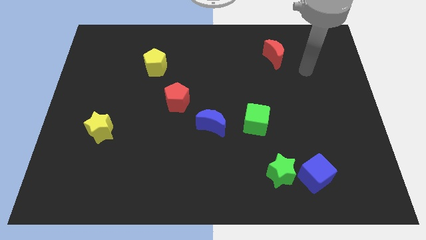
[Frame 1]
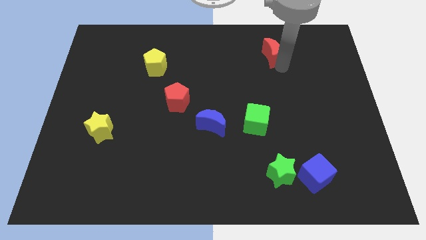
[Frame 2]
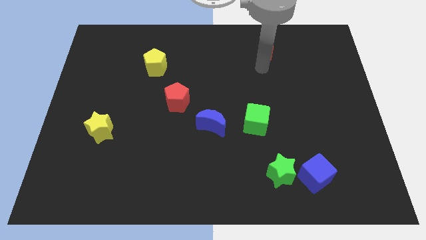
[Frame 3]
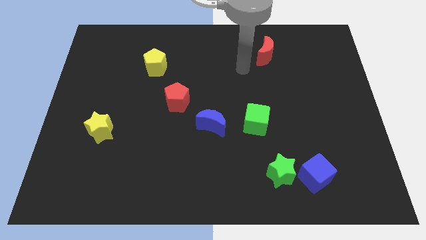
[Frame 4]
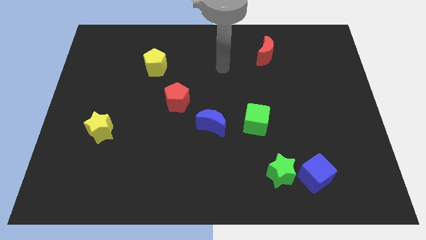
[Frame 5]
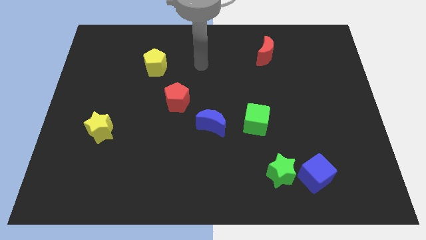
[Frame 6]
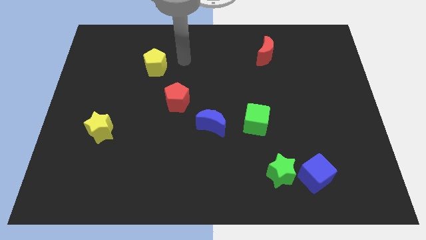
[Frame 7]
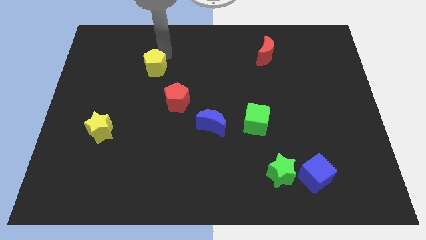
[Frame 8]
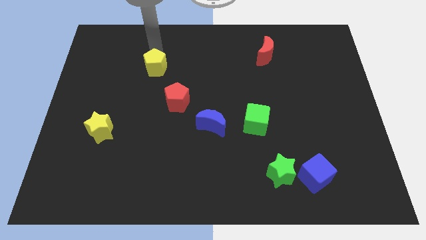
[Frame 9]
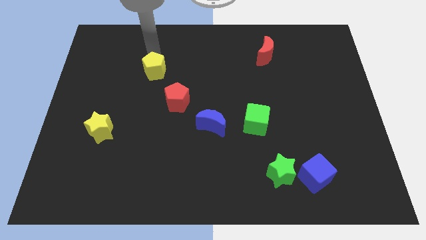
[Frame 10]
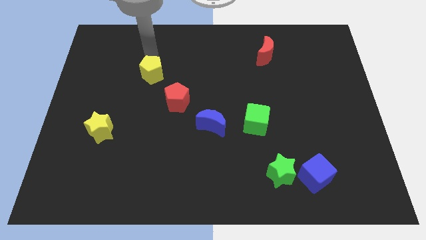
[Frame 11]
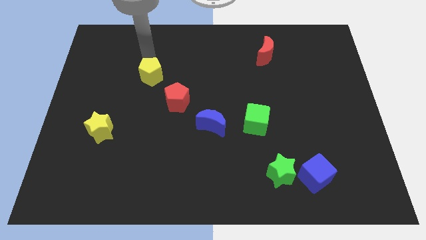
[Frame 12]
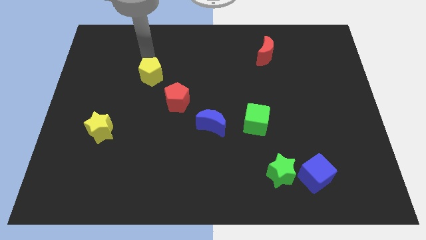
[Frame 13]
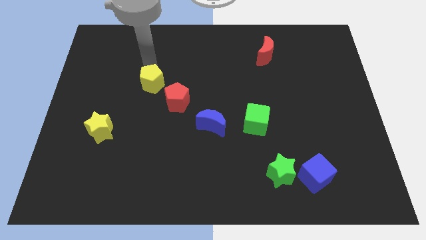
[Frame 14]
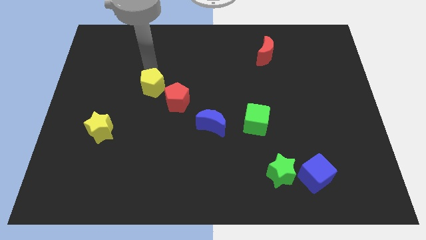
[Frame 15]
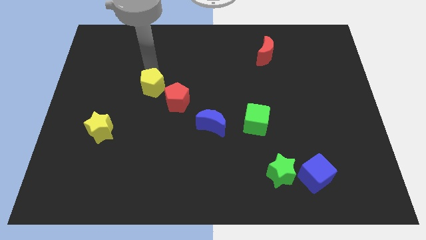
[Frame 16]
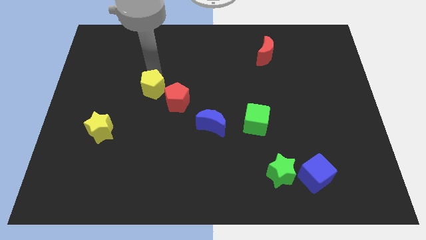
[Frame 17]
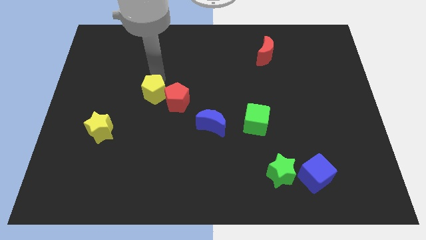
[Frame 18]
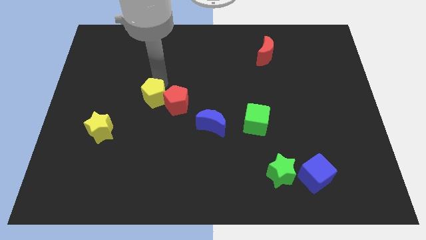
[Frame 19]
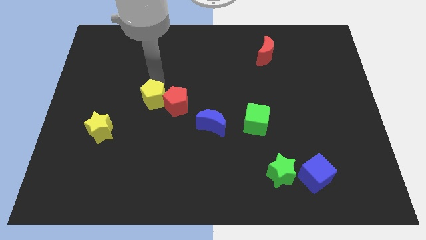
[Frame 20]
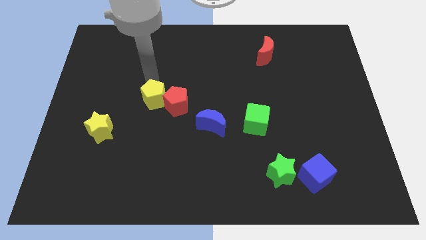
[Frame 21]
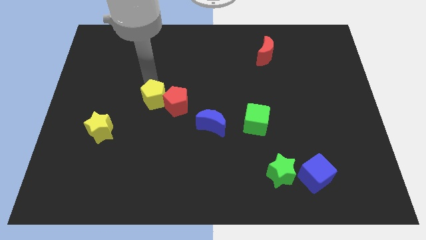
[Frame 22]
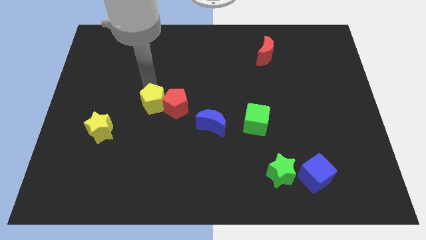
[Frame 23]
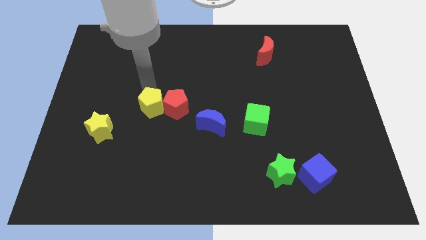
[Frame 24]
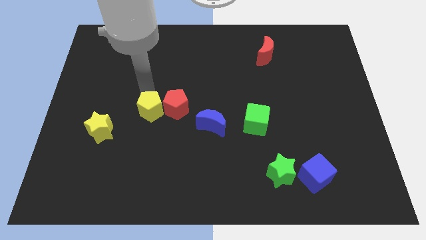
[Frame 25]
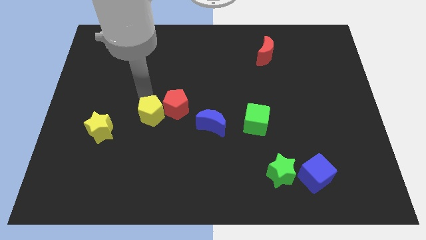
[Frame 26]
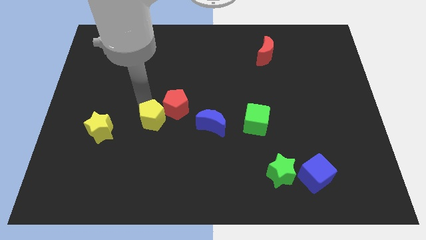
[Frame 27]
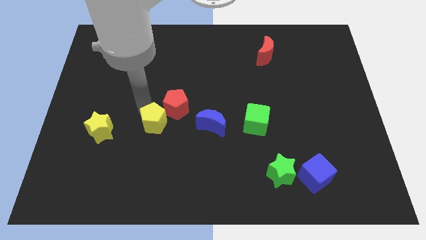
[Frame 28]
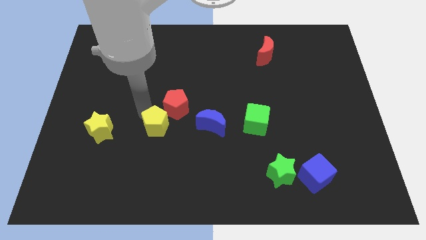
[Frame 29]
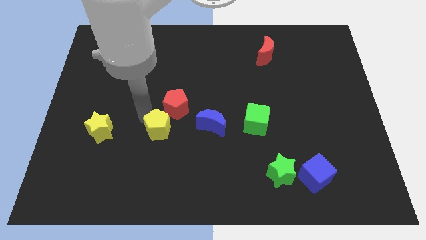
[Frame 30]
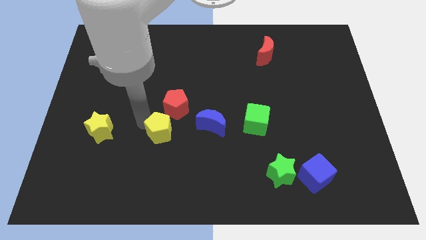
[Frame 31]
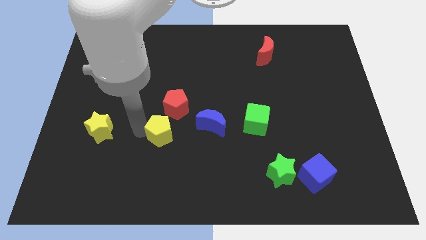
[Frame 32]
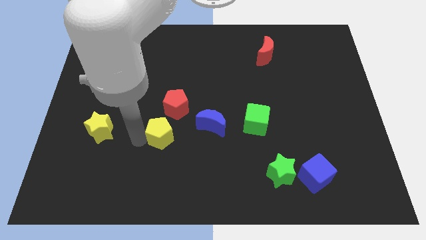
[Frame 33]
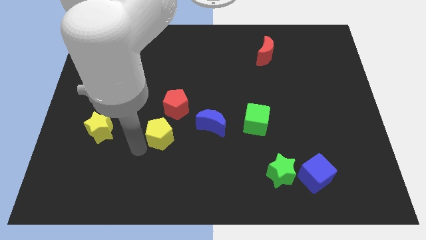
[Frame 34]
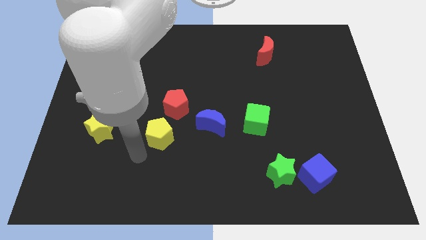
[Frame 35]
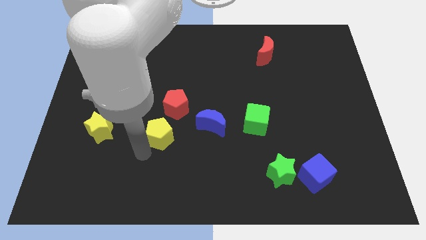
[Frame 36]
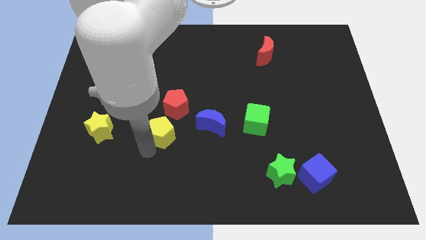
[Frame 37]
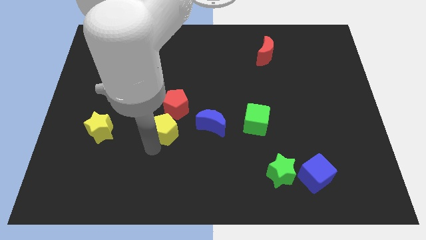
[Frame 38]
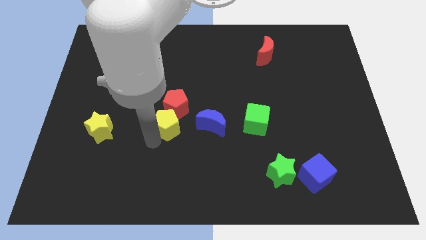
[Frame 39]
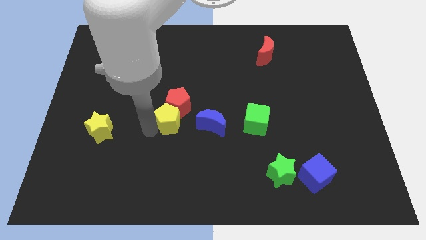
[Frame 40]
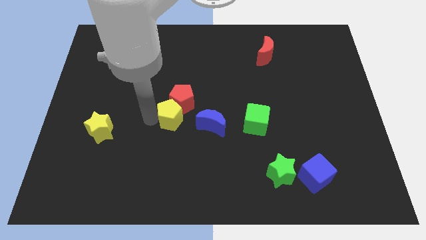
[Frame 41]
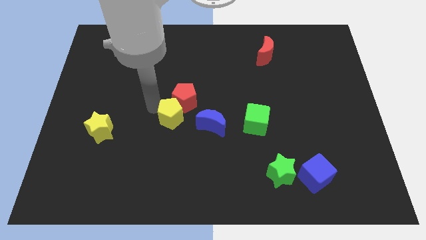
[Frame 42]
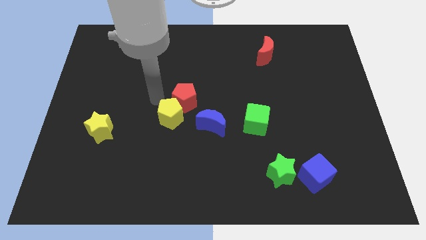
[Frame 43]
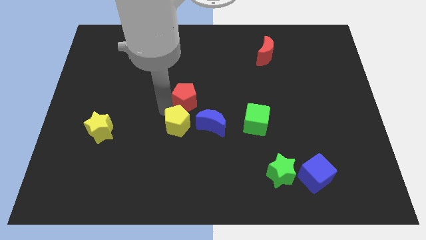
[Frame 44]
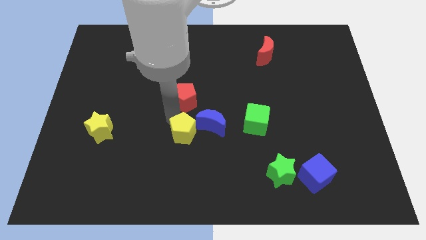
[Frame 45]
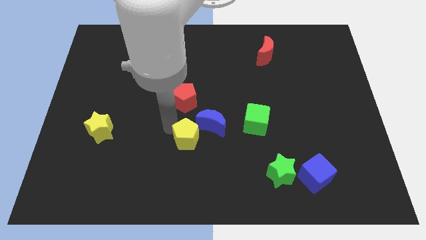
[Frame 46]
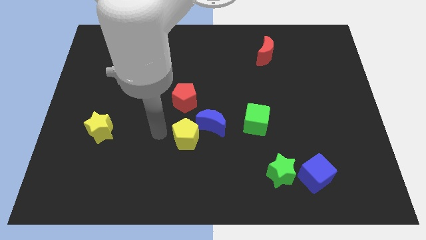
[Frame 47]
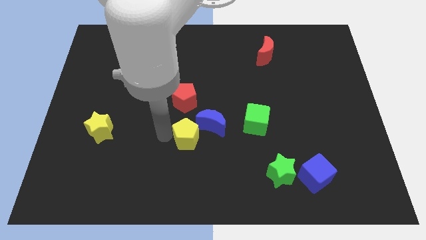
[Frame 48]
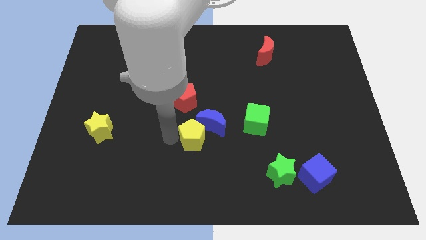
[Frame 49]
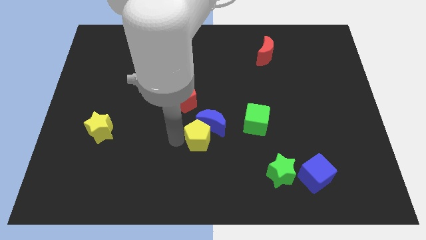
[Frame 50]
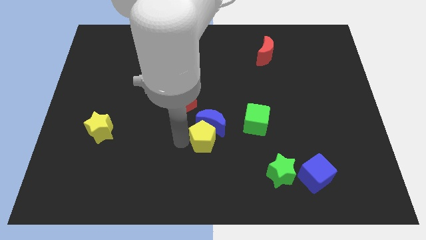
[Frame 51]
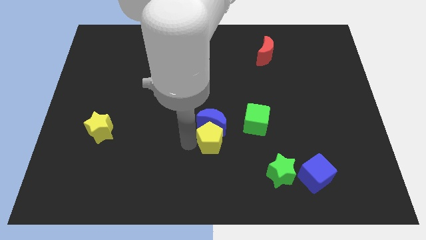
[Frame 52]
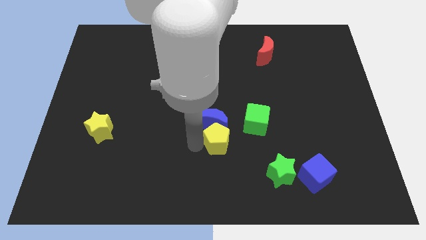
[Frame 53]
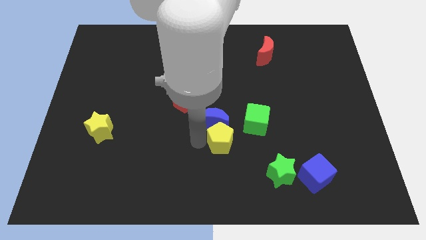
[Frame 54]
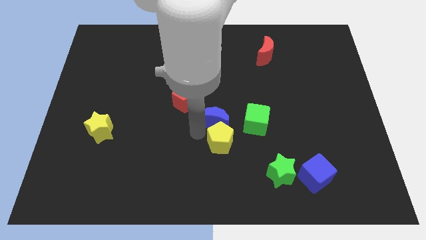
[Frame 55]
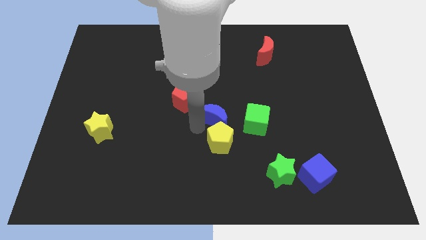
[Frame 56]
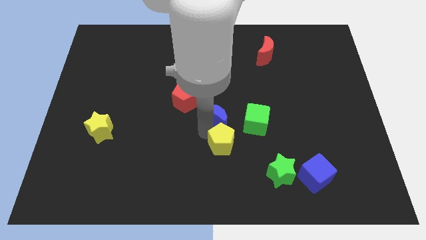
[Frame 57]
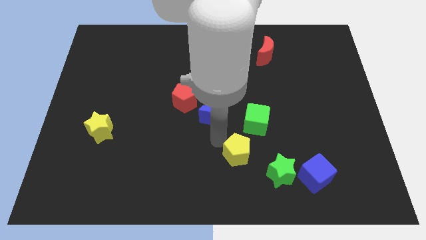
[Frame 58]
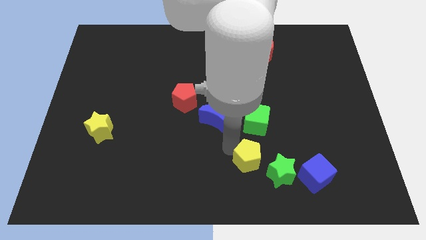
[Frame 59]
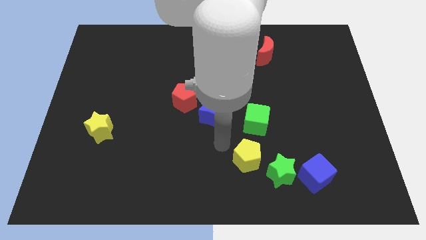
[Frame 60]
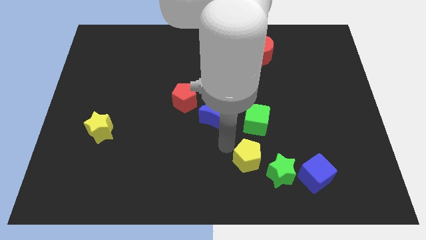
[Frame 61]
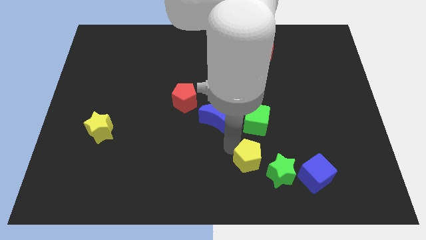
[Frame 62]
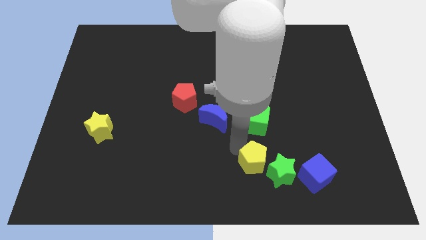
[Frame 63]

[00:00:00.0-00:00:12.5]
move the yellow pentagon to the green star
